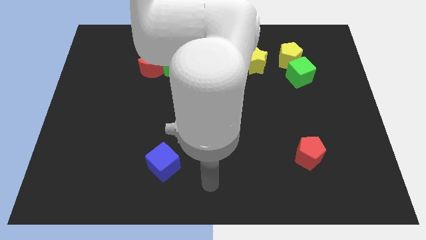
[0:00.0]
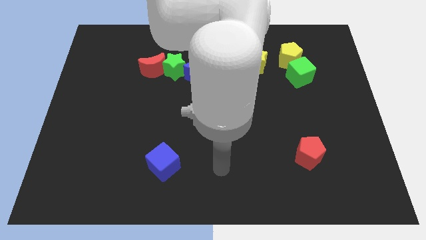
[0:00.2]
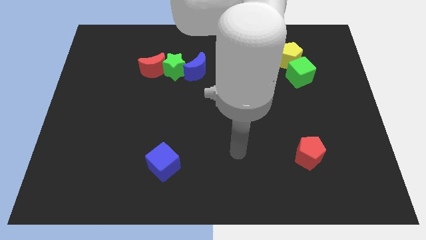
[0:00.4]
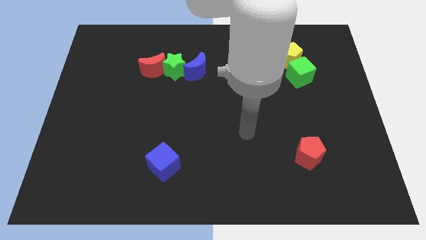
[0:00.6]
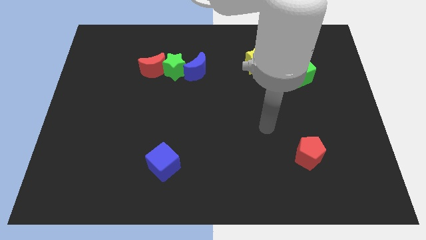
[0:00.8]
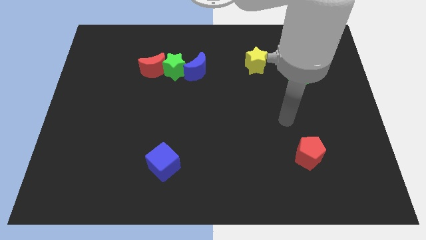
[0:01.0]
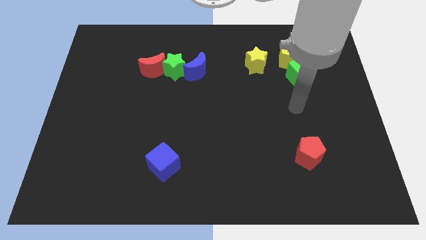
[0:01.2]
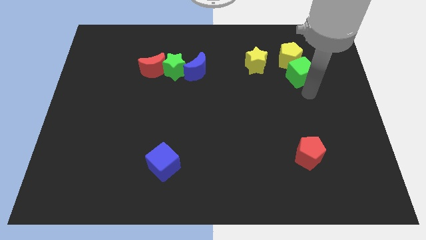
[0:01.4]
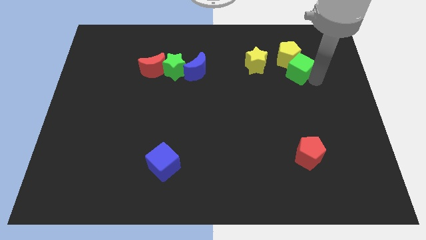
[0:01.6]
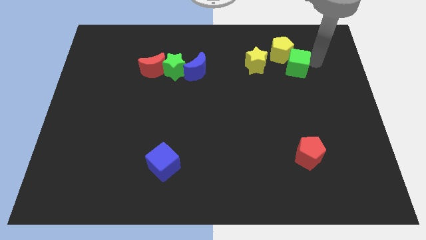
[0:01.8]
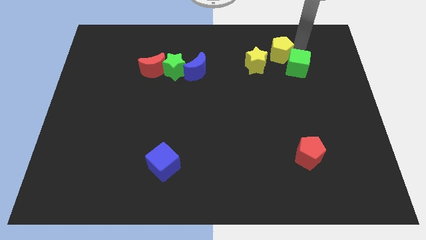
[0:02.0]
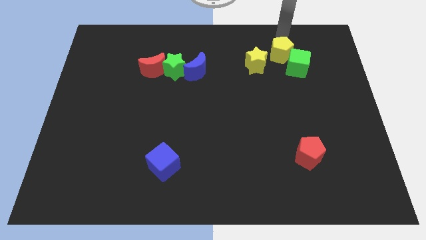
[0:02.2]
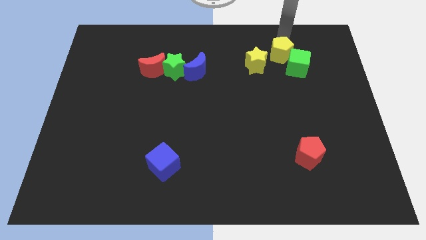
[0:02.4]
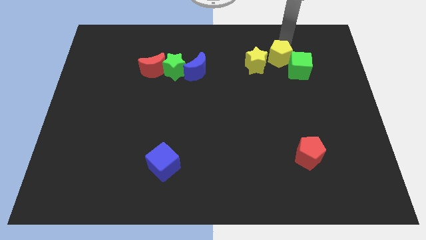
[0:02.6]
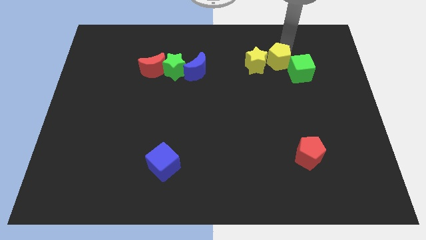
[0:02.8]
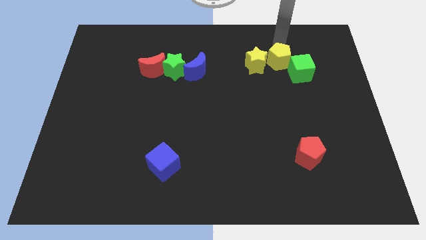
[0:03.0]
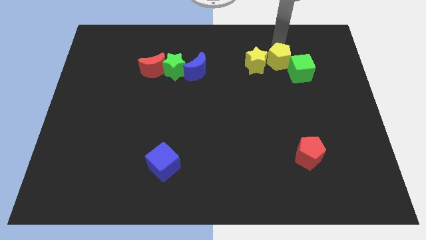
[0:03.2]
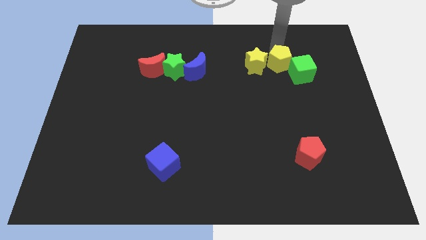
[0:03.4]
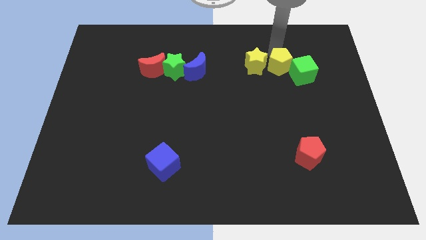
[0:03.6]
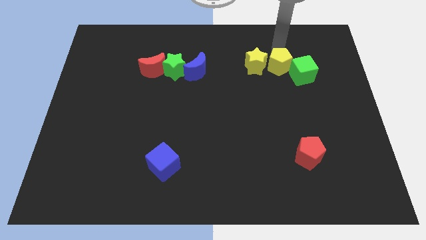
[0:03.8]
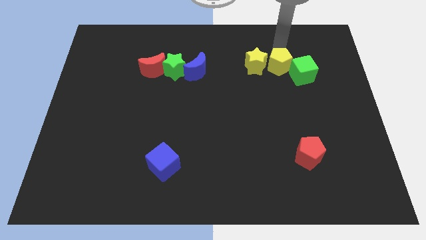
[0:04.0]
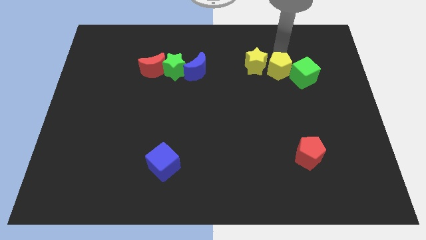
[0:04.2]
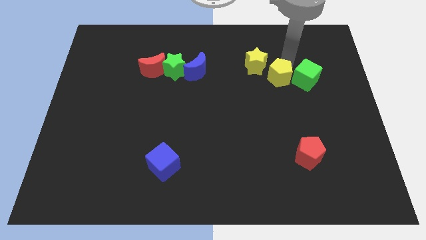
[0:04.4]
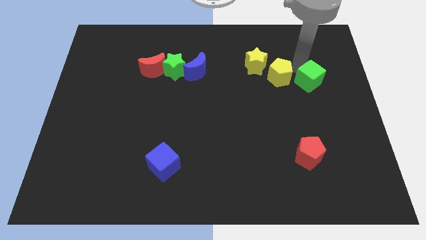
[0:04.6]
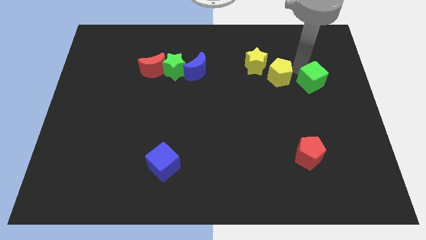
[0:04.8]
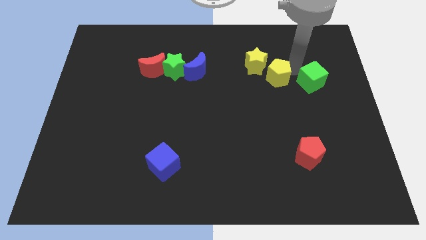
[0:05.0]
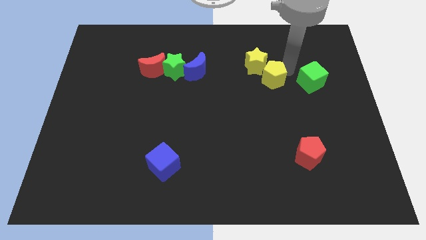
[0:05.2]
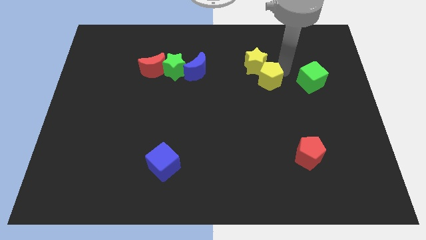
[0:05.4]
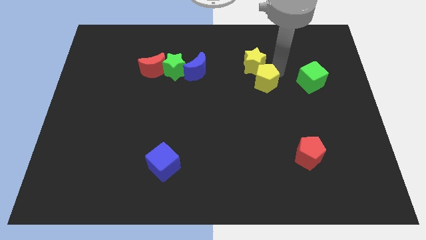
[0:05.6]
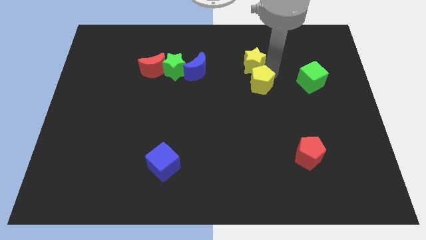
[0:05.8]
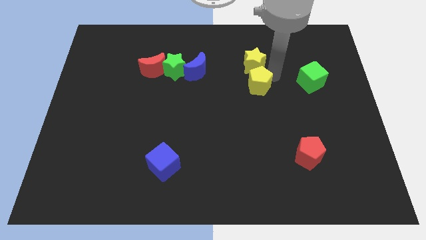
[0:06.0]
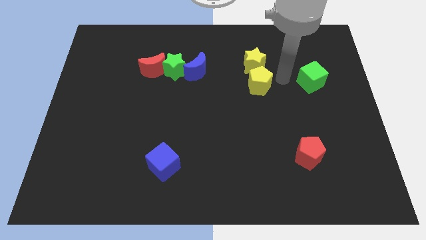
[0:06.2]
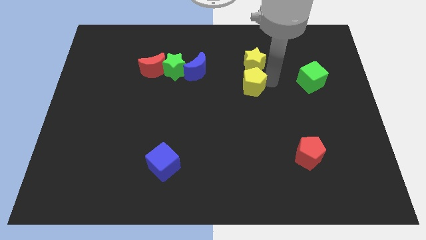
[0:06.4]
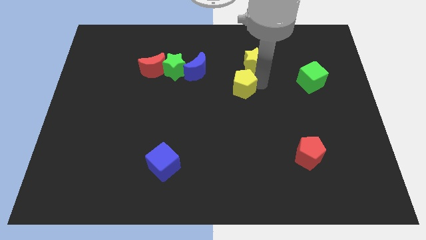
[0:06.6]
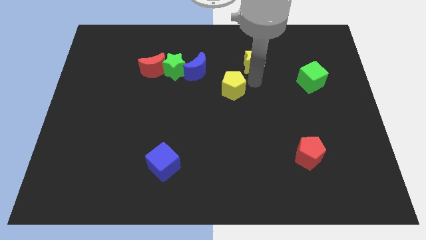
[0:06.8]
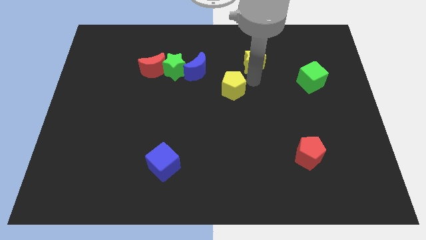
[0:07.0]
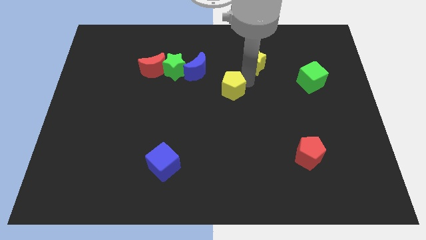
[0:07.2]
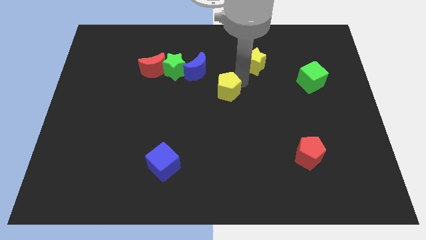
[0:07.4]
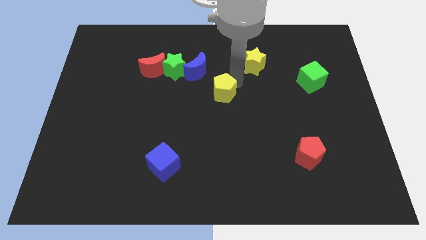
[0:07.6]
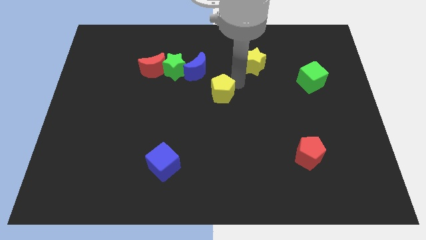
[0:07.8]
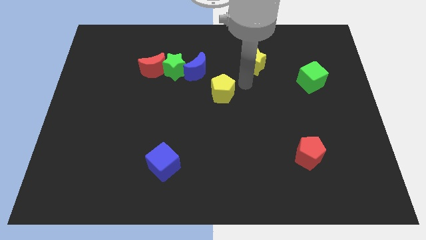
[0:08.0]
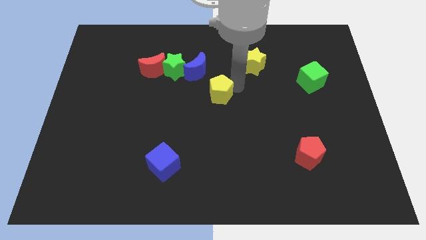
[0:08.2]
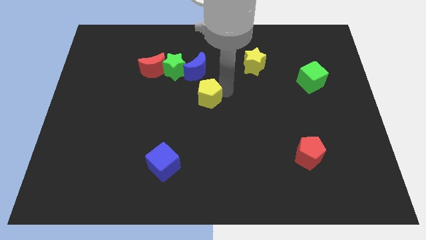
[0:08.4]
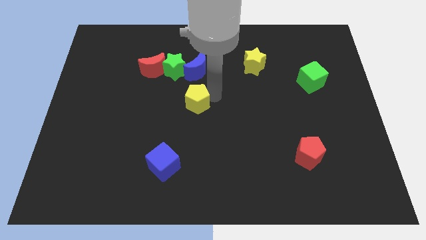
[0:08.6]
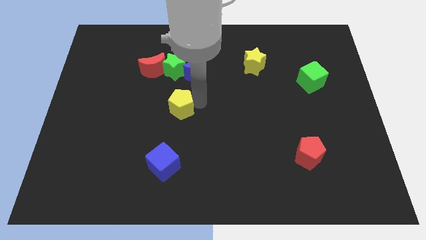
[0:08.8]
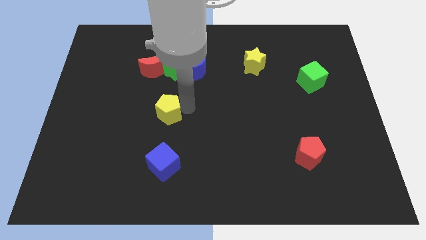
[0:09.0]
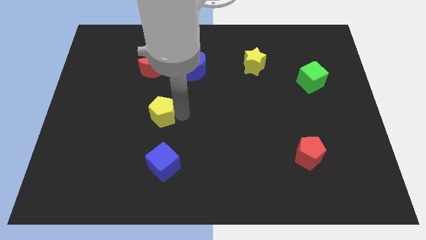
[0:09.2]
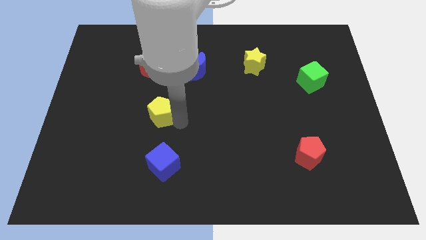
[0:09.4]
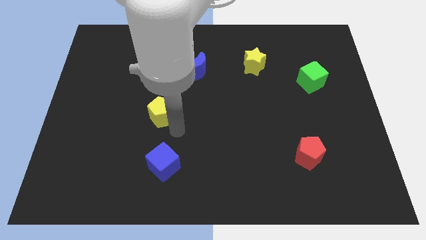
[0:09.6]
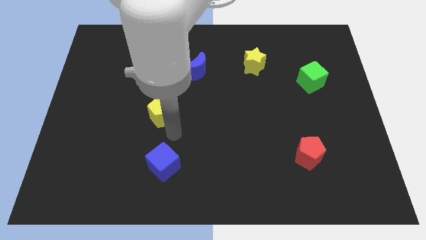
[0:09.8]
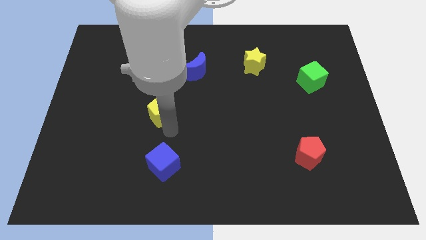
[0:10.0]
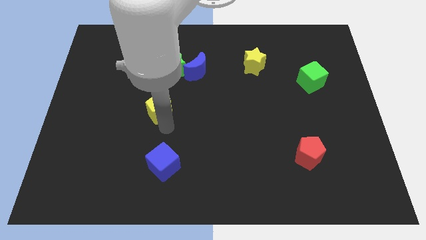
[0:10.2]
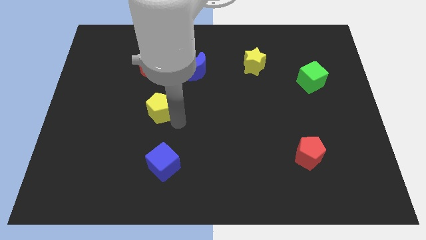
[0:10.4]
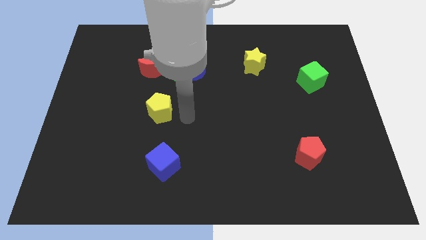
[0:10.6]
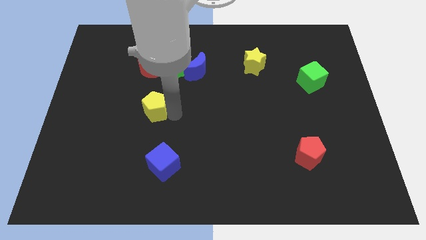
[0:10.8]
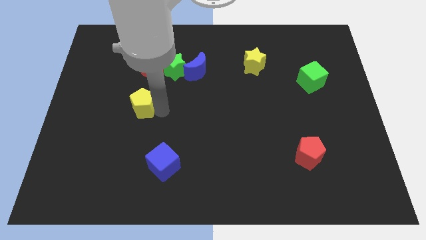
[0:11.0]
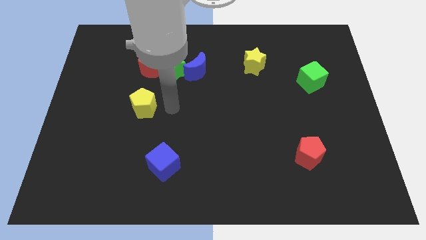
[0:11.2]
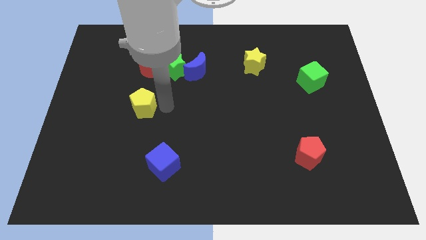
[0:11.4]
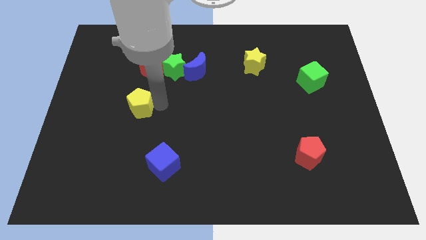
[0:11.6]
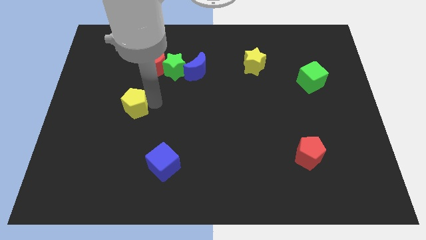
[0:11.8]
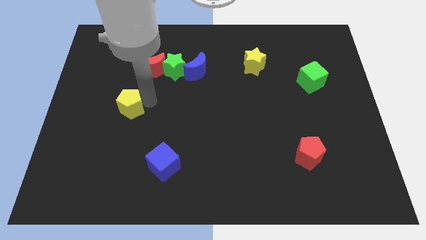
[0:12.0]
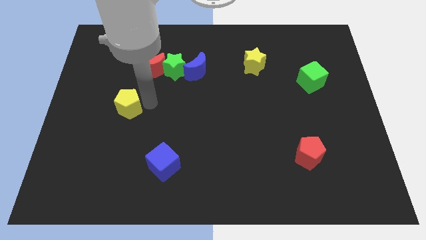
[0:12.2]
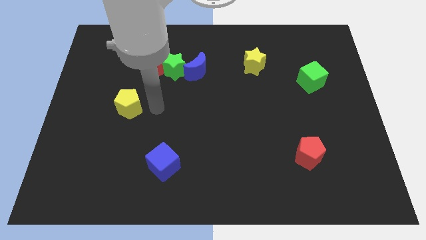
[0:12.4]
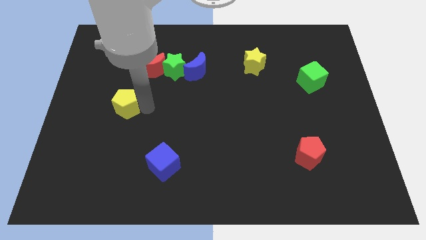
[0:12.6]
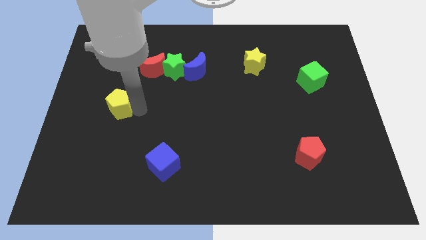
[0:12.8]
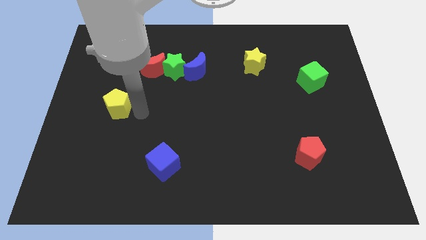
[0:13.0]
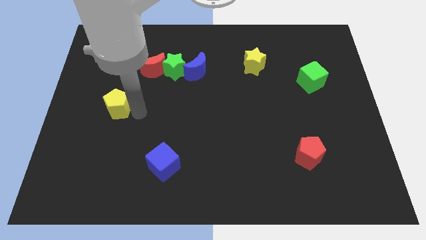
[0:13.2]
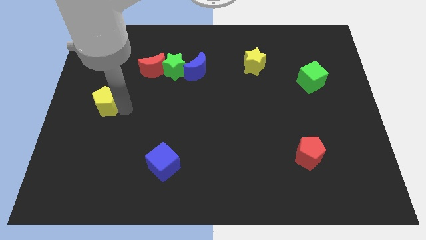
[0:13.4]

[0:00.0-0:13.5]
put the yellow pentagon to the left side of the board
